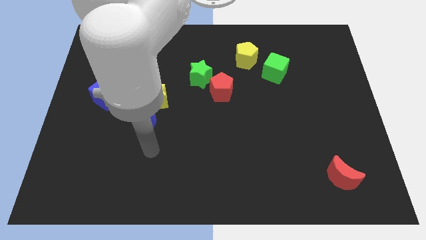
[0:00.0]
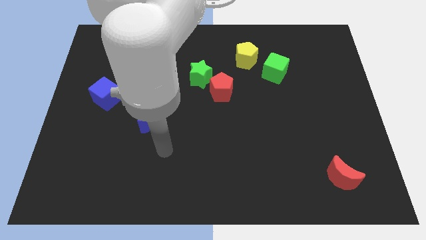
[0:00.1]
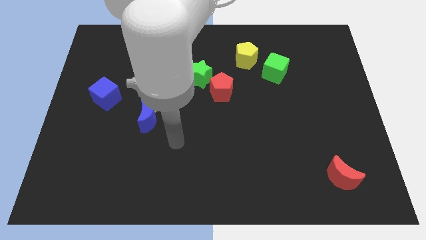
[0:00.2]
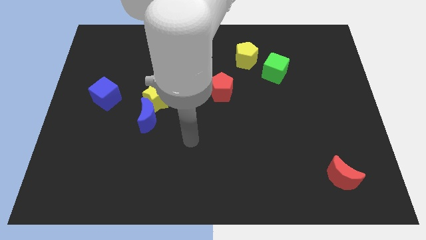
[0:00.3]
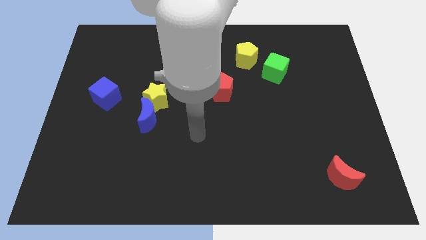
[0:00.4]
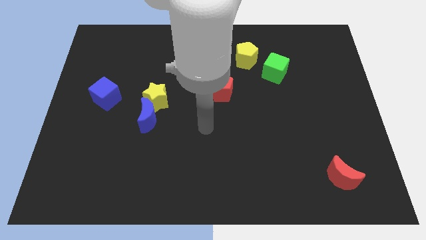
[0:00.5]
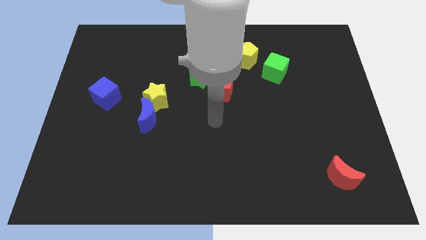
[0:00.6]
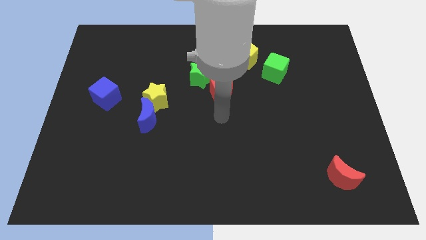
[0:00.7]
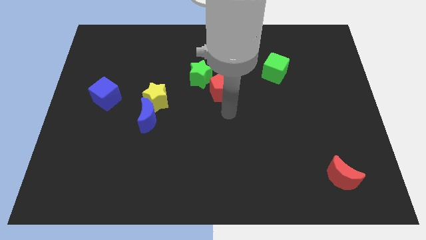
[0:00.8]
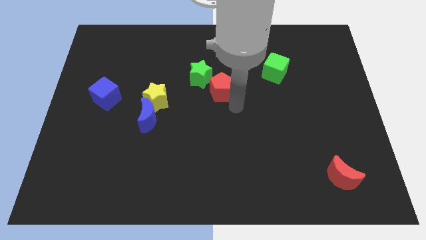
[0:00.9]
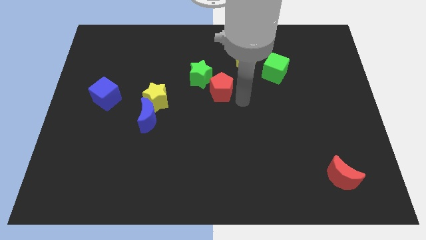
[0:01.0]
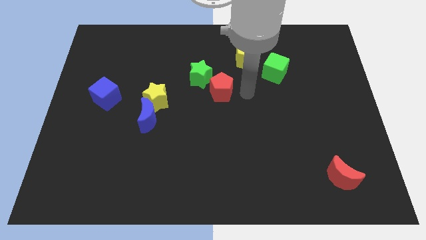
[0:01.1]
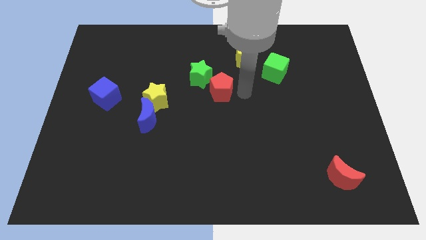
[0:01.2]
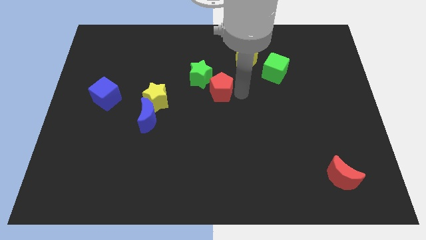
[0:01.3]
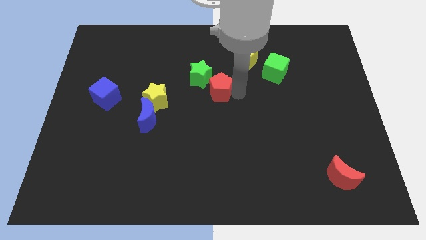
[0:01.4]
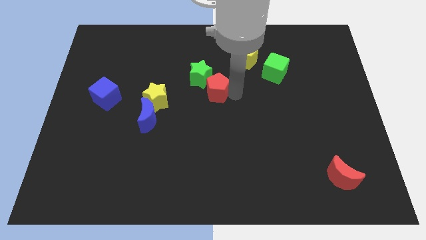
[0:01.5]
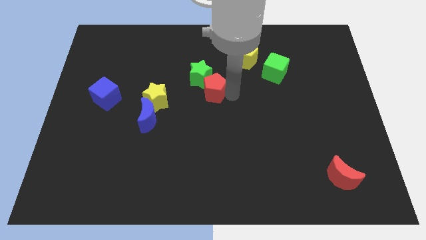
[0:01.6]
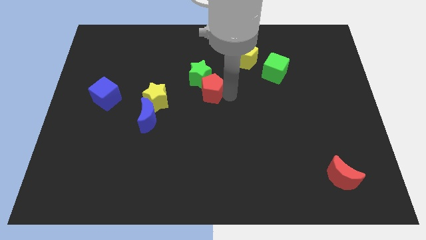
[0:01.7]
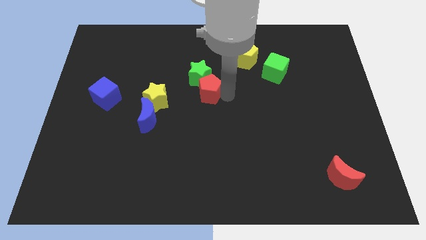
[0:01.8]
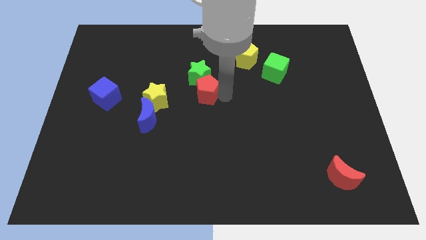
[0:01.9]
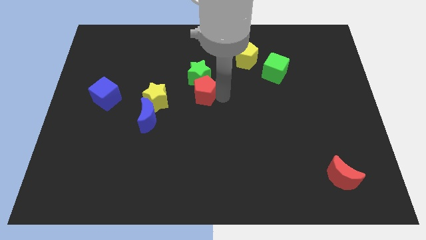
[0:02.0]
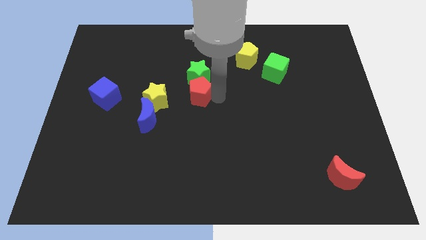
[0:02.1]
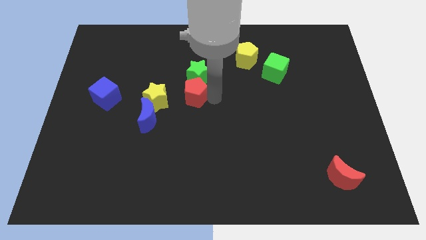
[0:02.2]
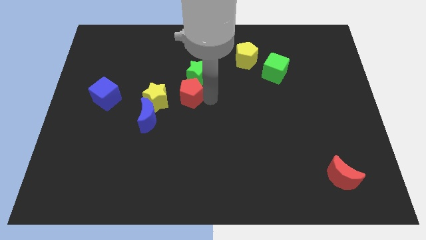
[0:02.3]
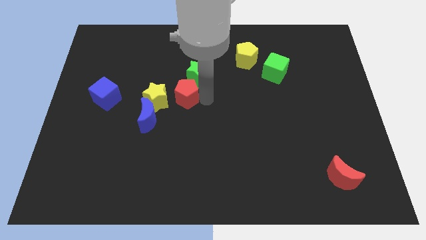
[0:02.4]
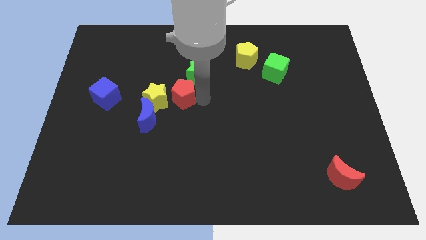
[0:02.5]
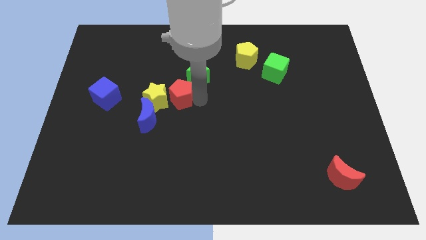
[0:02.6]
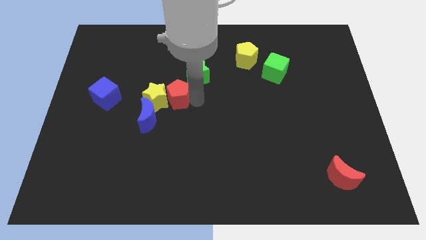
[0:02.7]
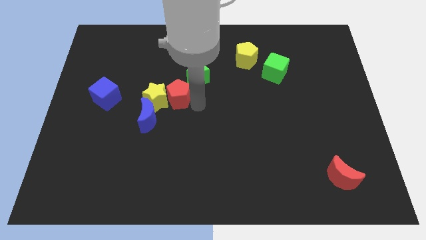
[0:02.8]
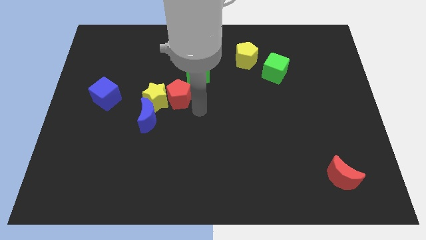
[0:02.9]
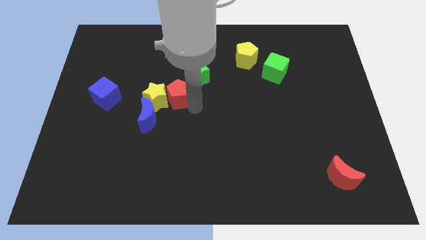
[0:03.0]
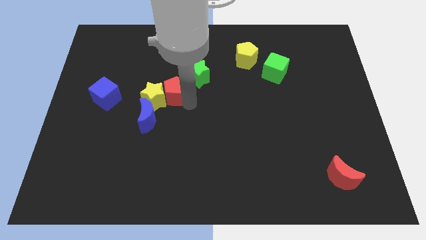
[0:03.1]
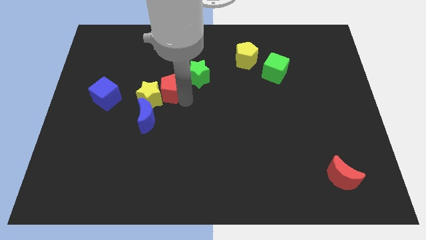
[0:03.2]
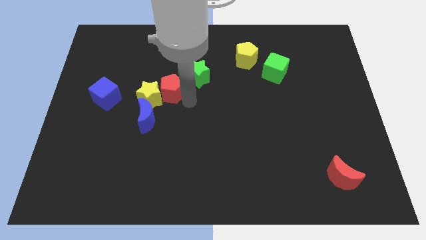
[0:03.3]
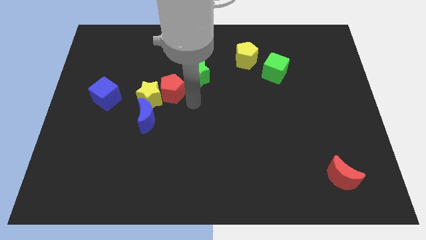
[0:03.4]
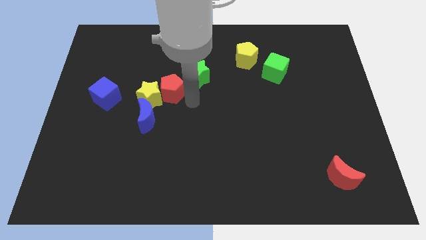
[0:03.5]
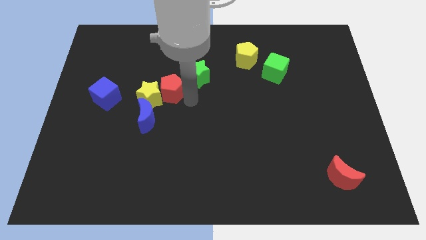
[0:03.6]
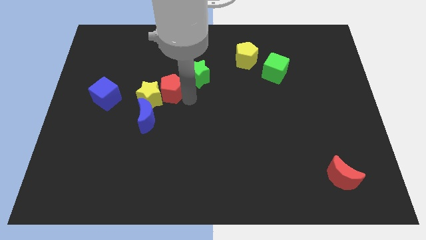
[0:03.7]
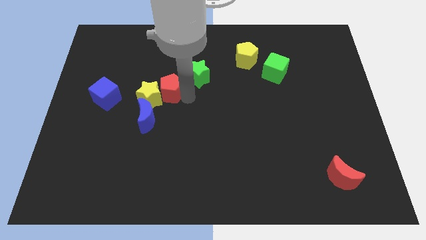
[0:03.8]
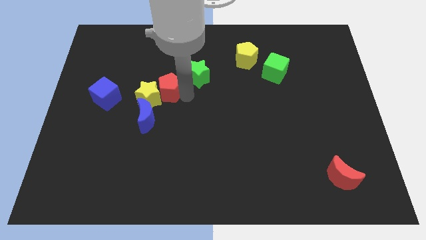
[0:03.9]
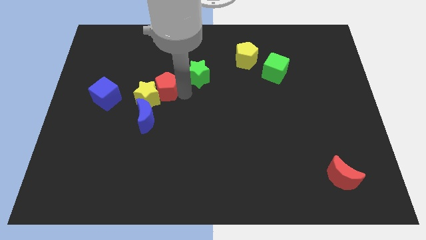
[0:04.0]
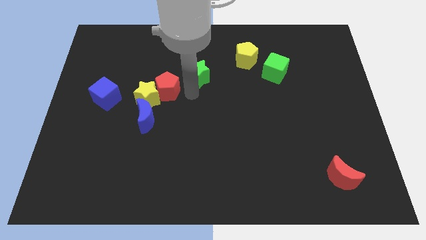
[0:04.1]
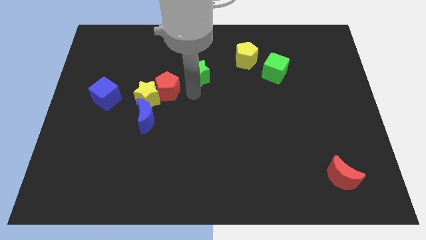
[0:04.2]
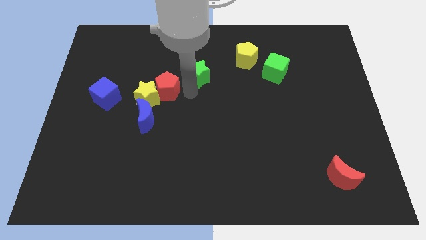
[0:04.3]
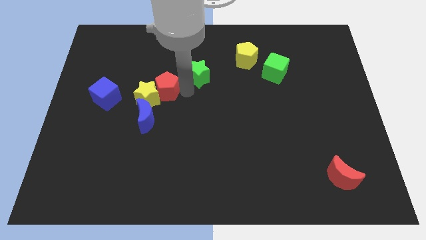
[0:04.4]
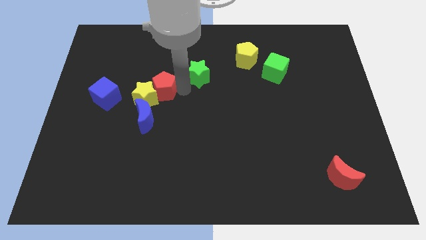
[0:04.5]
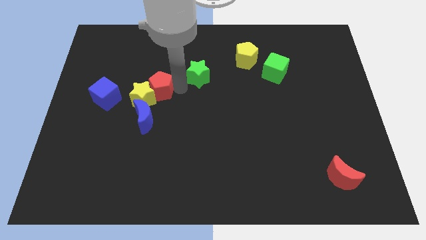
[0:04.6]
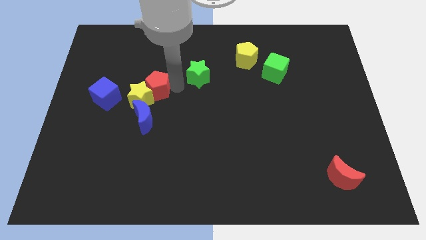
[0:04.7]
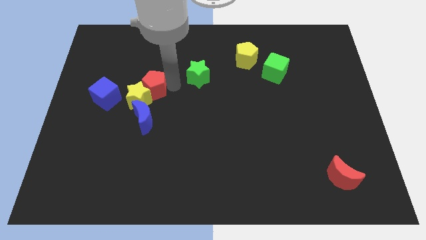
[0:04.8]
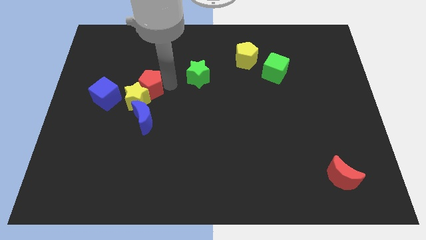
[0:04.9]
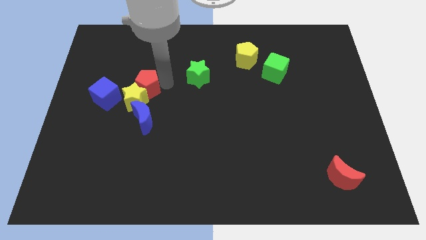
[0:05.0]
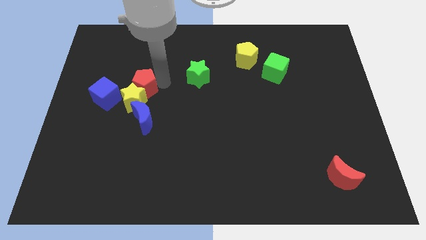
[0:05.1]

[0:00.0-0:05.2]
push the red pentagon to the top left side of the yellow star

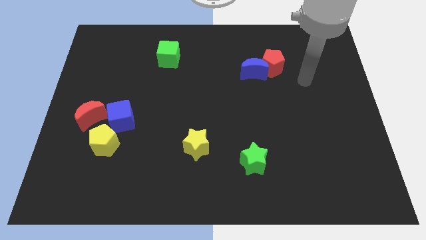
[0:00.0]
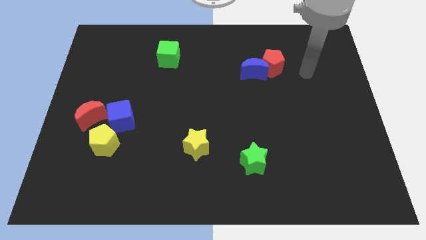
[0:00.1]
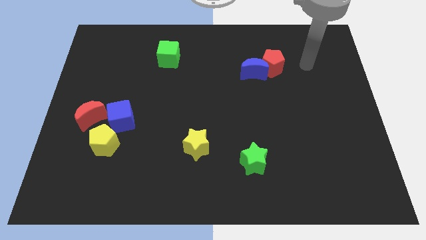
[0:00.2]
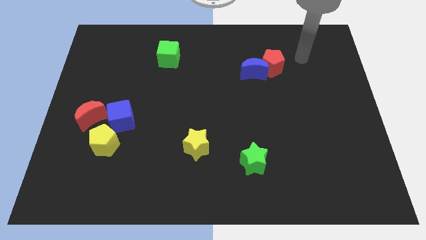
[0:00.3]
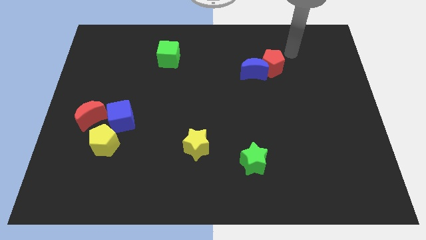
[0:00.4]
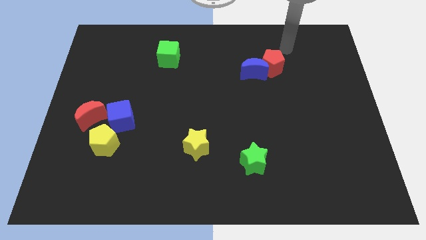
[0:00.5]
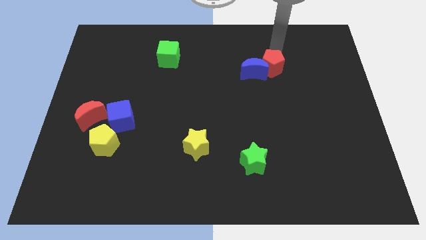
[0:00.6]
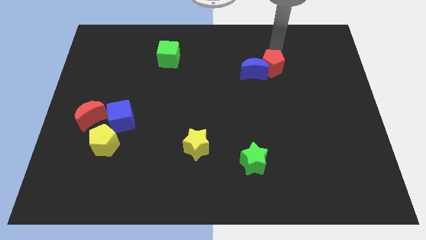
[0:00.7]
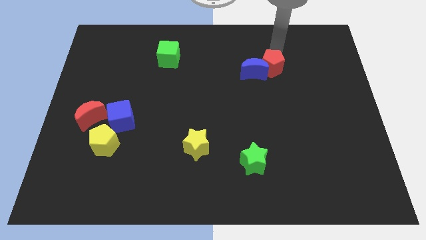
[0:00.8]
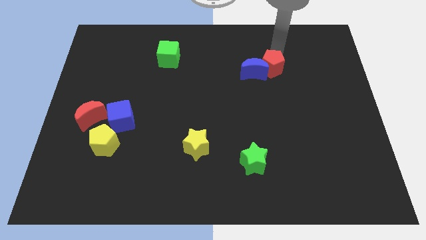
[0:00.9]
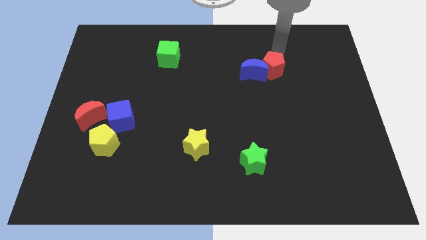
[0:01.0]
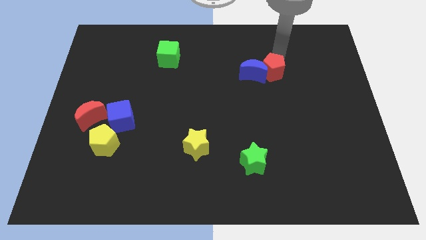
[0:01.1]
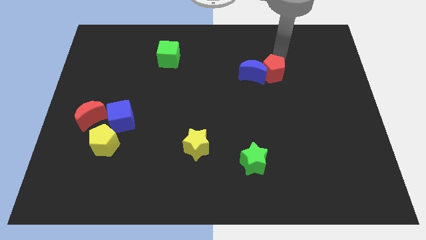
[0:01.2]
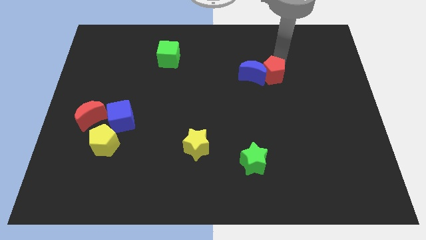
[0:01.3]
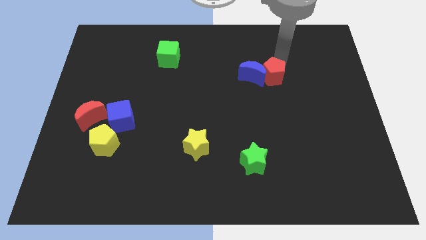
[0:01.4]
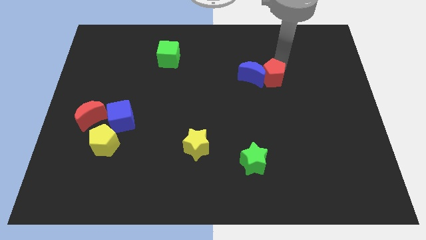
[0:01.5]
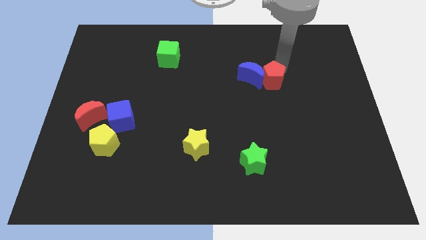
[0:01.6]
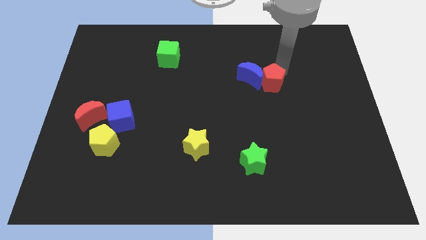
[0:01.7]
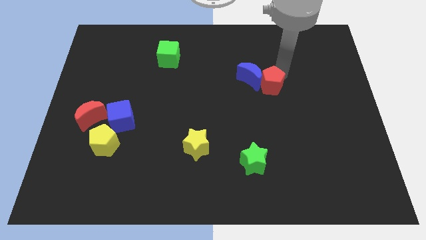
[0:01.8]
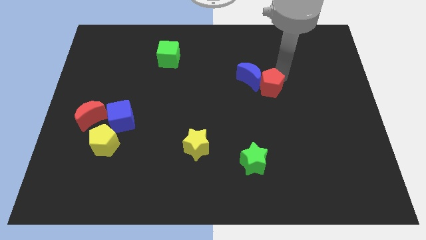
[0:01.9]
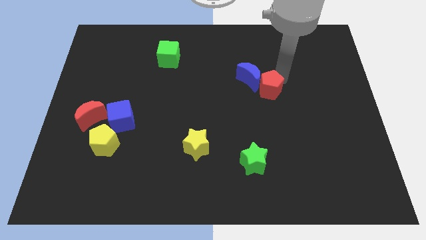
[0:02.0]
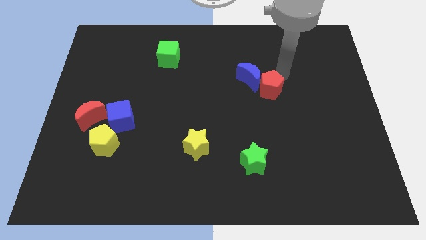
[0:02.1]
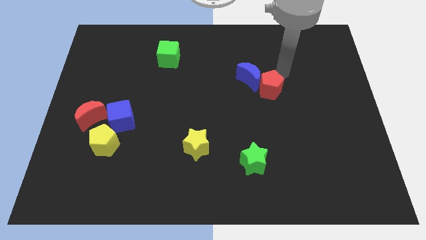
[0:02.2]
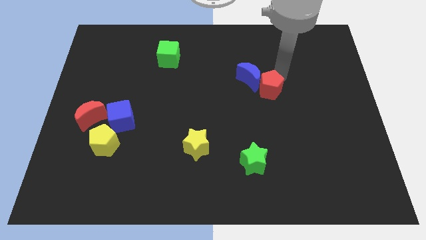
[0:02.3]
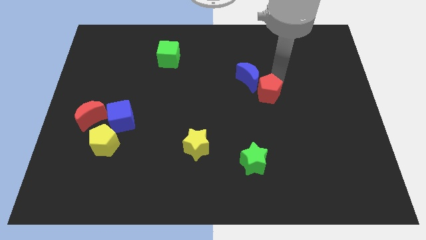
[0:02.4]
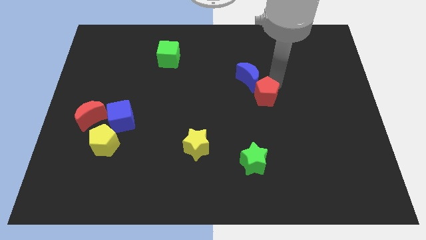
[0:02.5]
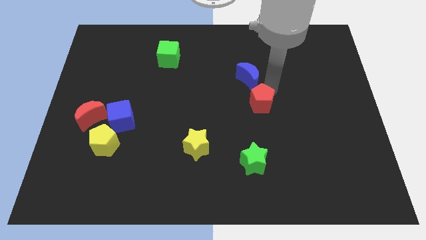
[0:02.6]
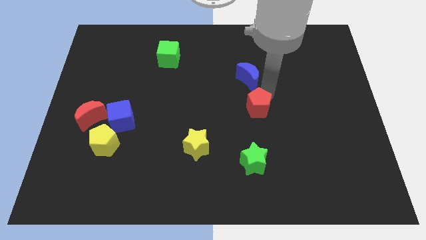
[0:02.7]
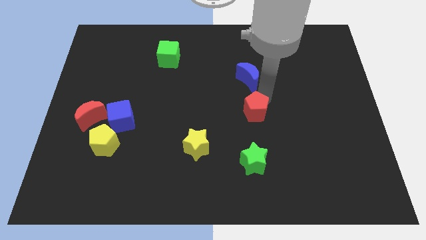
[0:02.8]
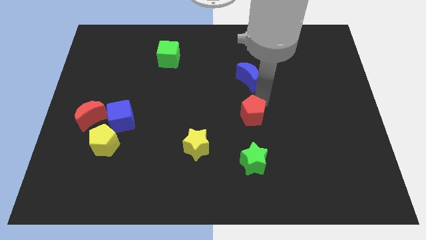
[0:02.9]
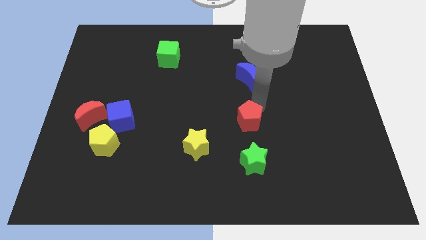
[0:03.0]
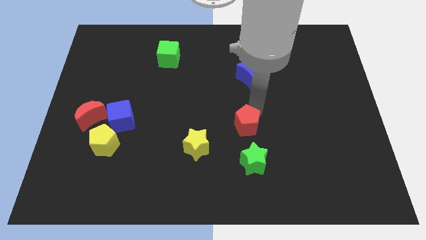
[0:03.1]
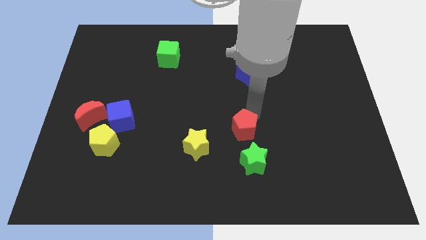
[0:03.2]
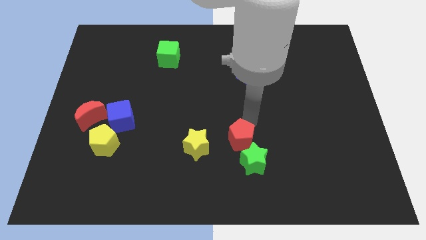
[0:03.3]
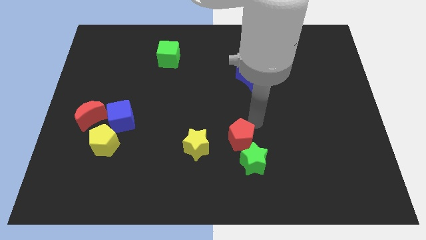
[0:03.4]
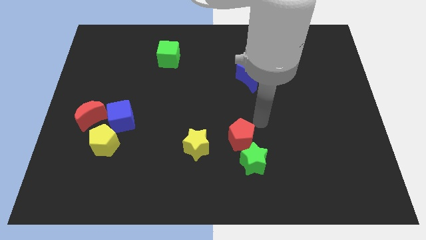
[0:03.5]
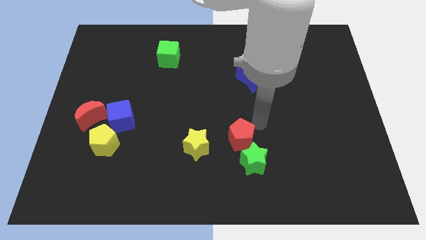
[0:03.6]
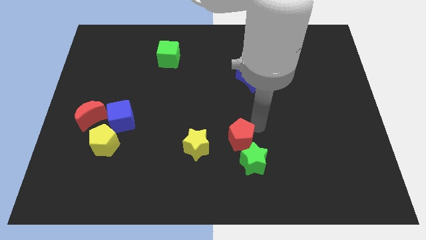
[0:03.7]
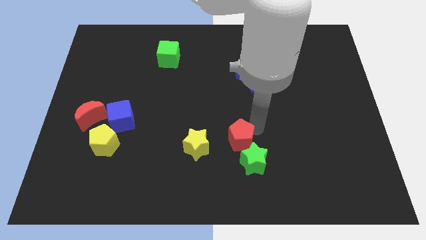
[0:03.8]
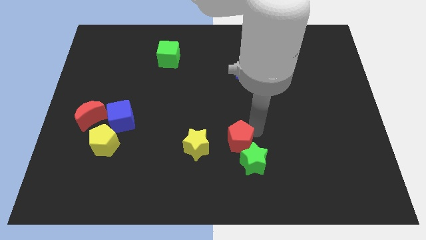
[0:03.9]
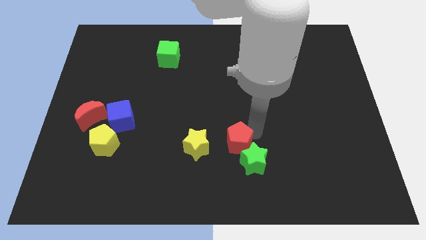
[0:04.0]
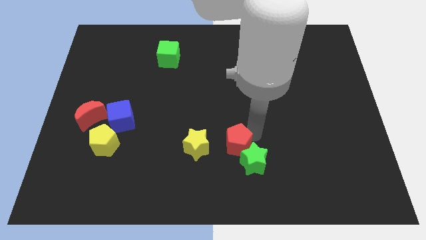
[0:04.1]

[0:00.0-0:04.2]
push the red pentagon just left of the green star
